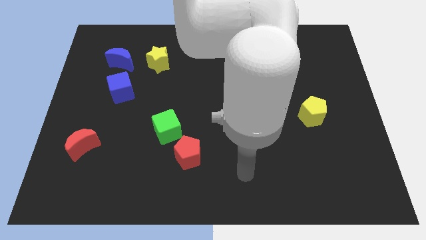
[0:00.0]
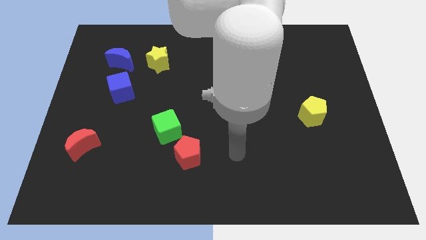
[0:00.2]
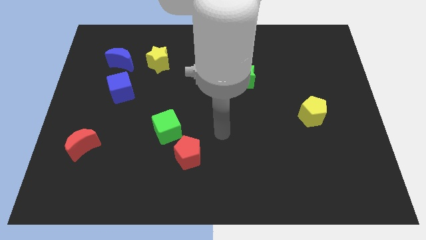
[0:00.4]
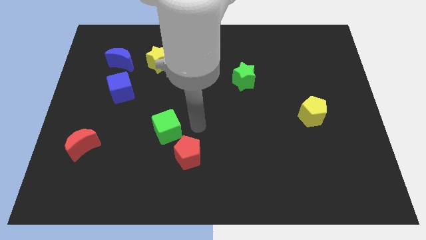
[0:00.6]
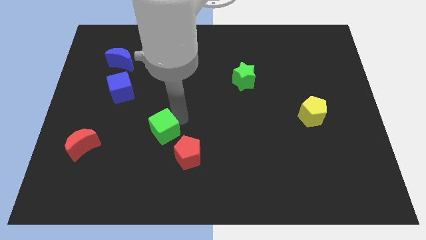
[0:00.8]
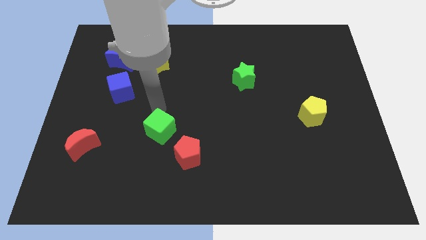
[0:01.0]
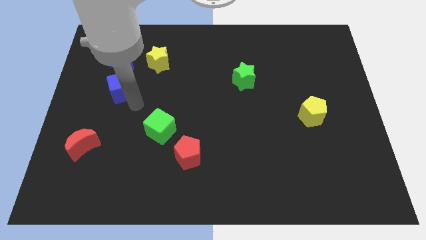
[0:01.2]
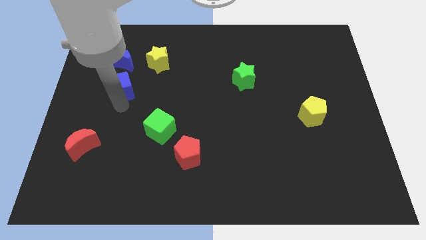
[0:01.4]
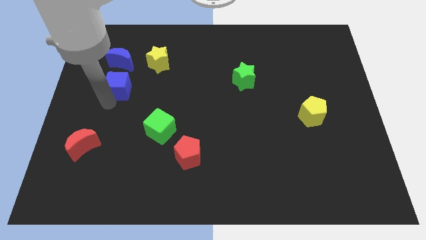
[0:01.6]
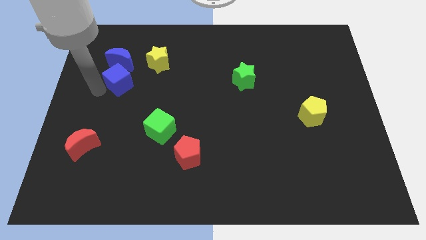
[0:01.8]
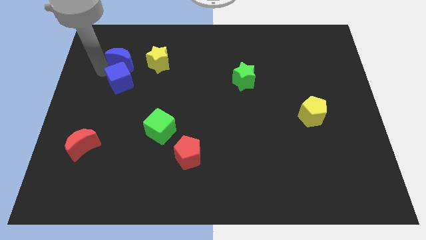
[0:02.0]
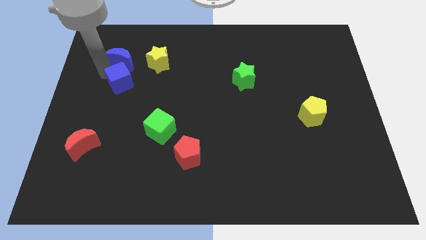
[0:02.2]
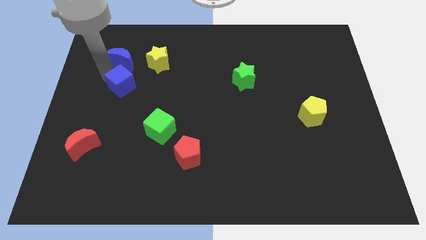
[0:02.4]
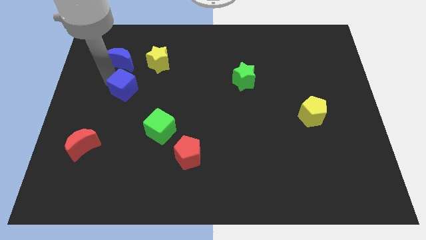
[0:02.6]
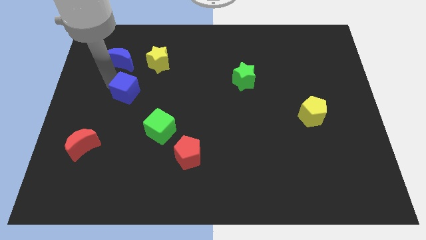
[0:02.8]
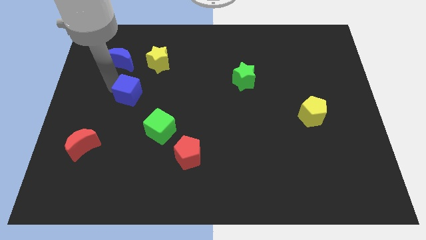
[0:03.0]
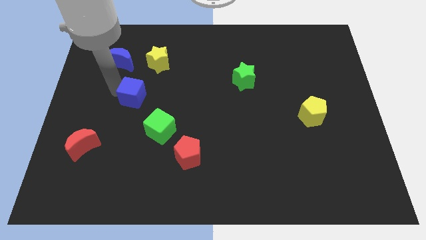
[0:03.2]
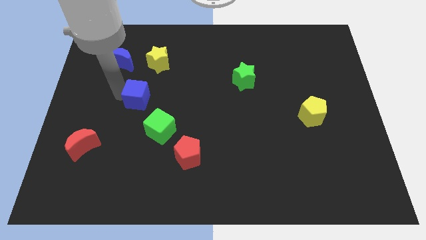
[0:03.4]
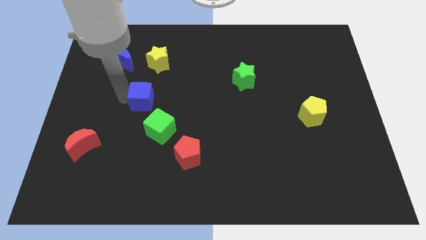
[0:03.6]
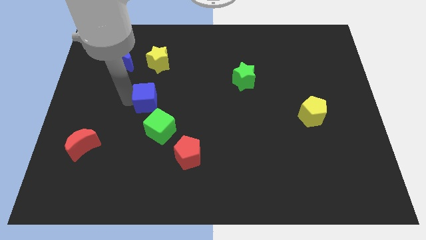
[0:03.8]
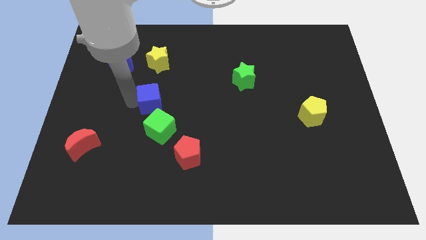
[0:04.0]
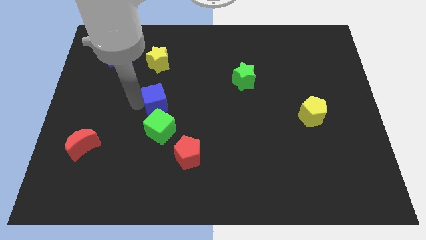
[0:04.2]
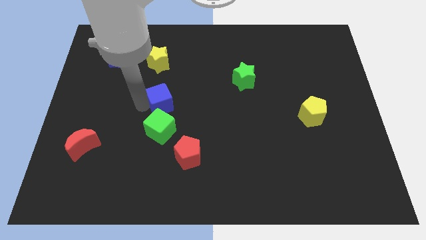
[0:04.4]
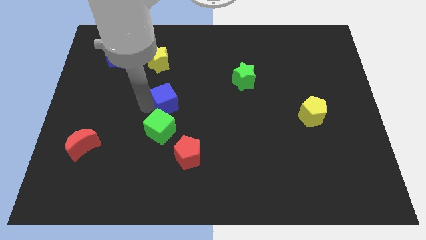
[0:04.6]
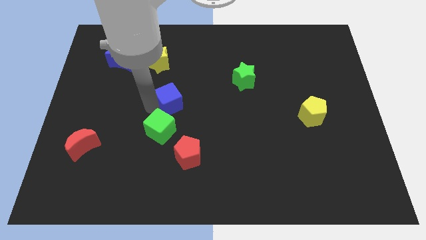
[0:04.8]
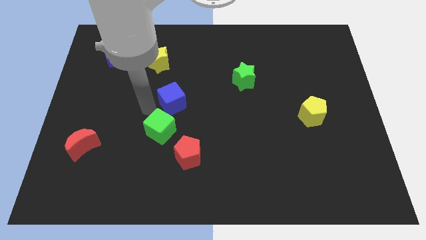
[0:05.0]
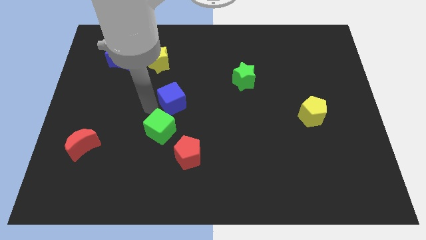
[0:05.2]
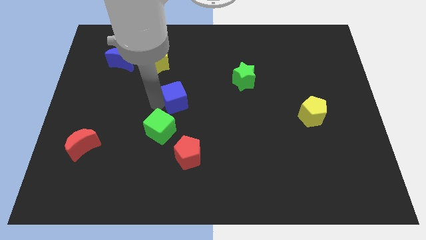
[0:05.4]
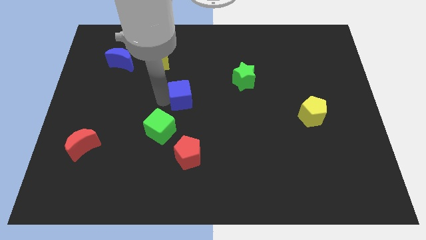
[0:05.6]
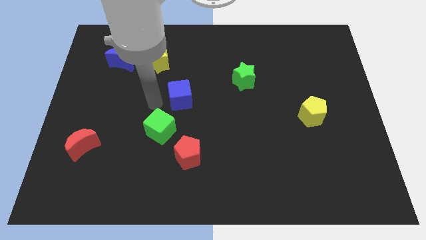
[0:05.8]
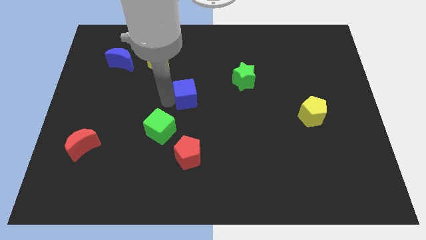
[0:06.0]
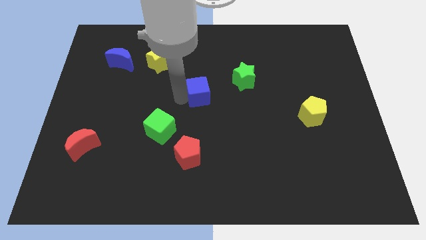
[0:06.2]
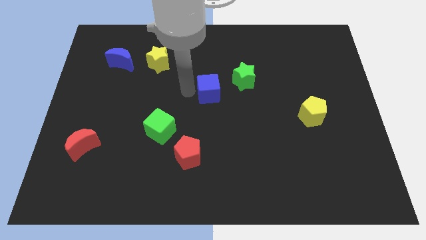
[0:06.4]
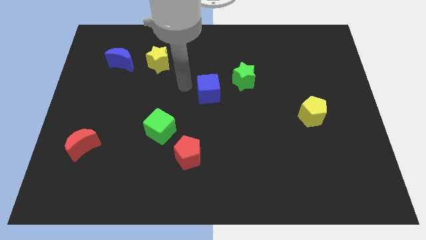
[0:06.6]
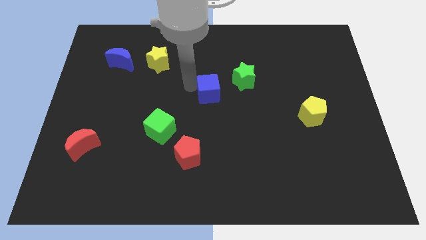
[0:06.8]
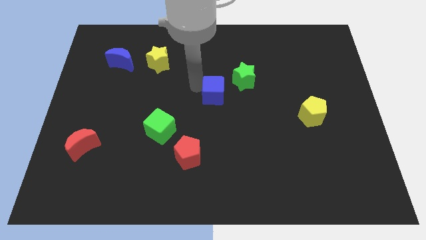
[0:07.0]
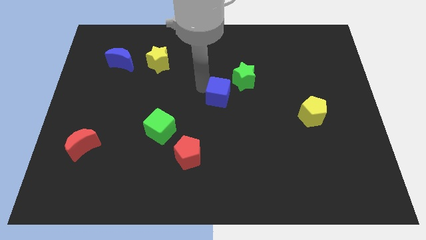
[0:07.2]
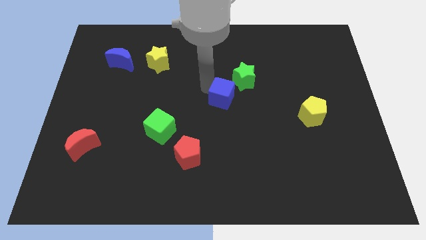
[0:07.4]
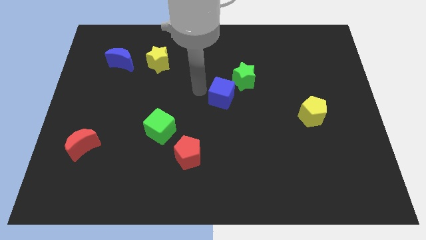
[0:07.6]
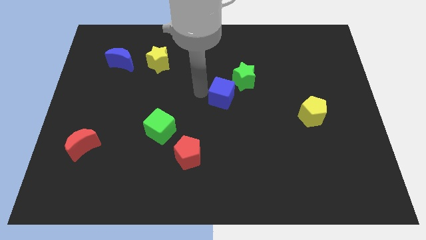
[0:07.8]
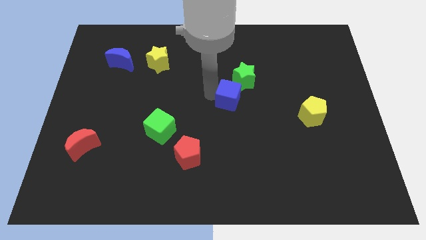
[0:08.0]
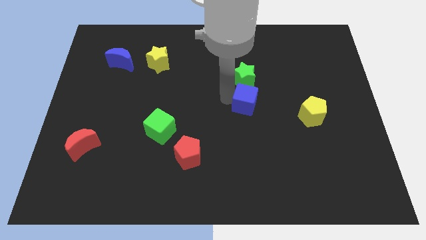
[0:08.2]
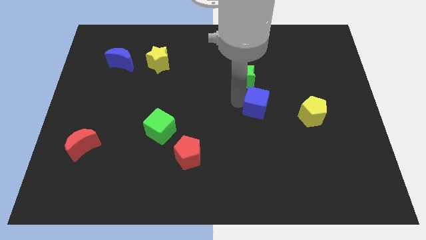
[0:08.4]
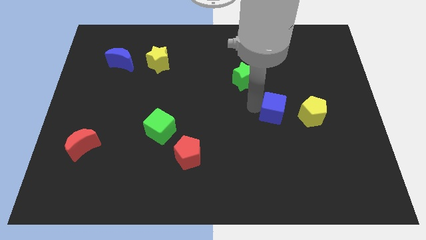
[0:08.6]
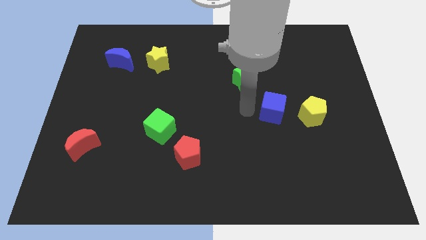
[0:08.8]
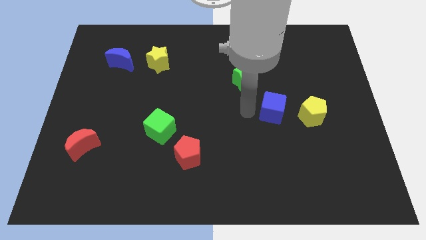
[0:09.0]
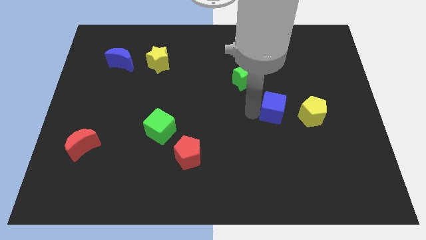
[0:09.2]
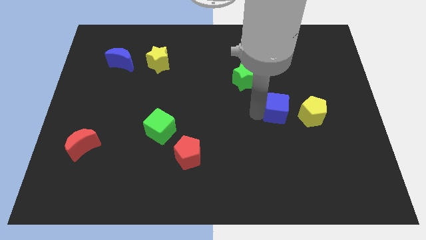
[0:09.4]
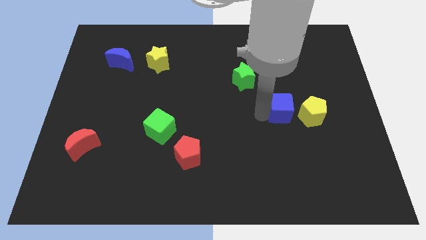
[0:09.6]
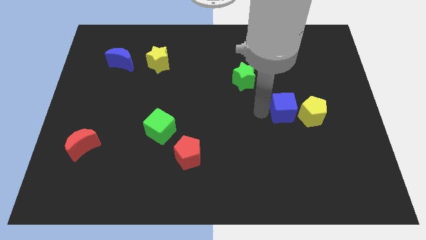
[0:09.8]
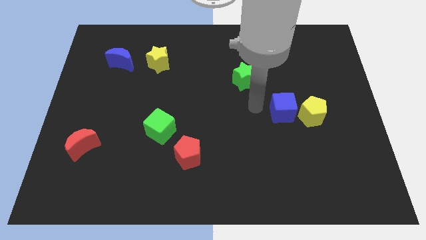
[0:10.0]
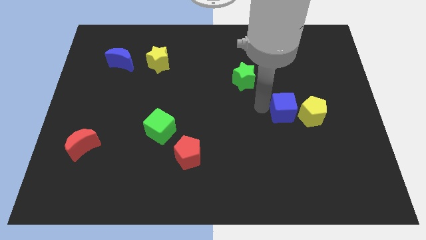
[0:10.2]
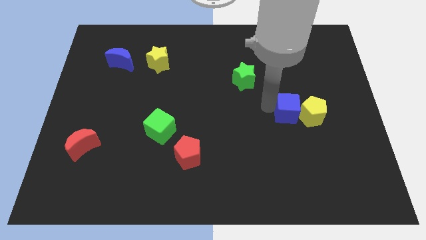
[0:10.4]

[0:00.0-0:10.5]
move the blue cube close to the yellow pentagon

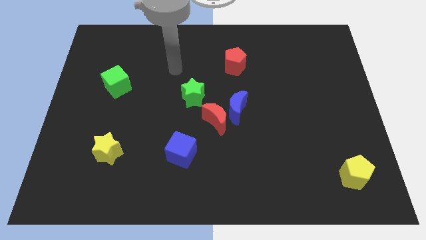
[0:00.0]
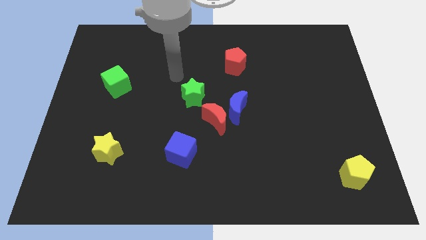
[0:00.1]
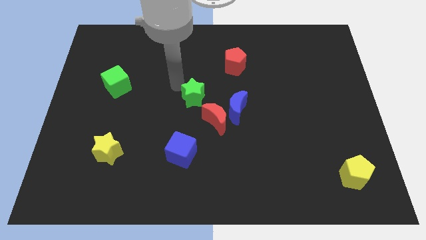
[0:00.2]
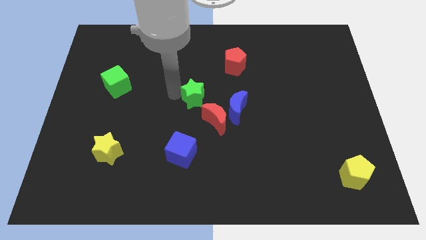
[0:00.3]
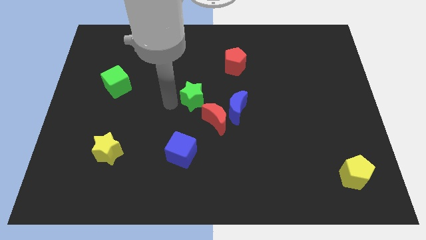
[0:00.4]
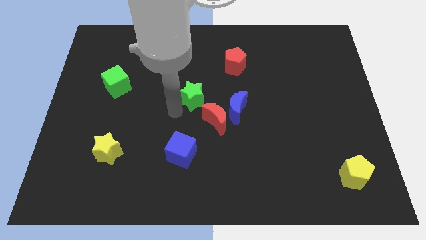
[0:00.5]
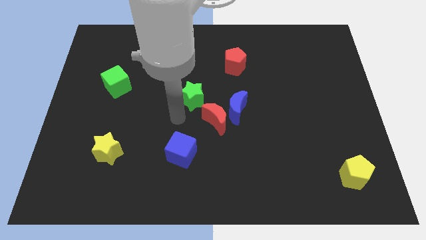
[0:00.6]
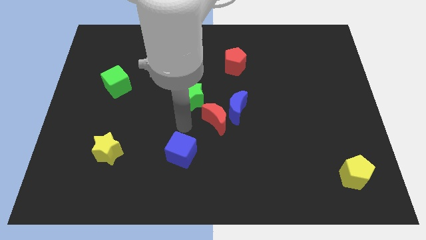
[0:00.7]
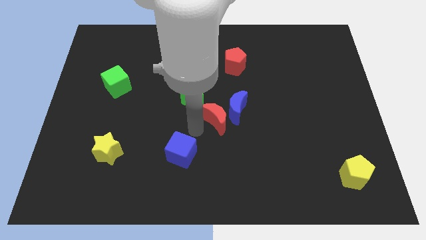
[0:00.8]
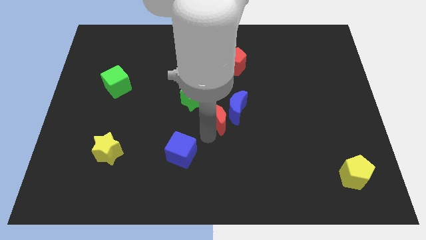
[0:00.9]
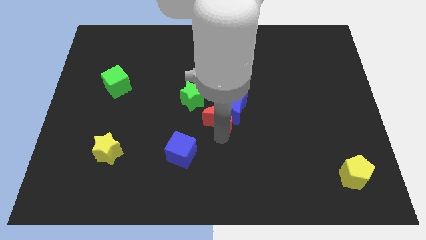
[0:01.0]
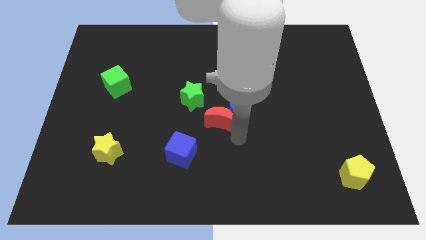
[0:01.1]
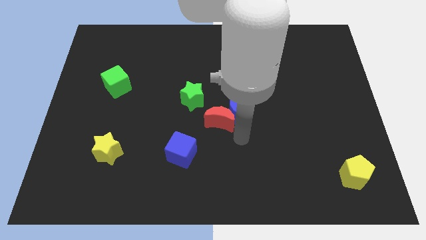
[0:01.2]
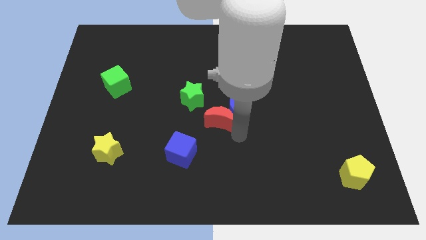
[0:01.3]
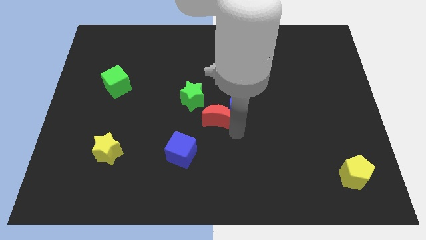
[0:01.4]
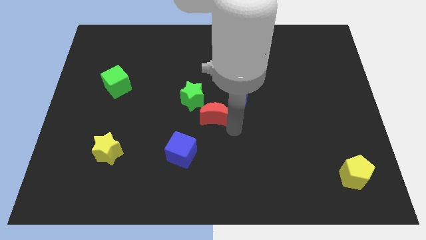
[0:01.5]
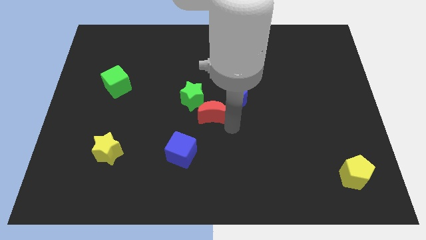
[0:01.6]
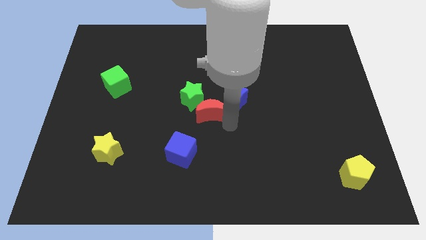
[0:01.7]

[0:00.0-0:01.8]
slide the red moon close to the green star

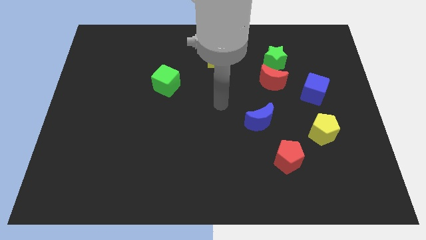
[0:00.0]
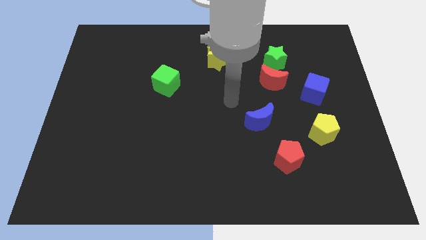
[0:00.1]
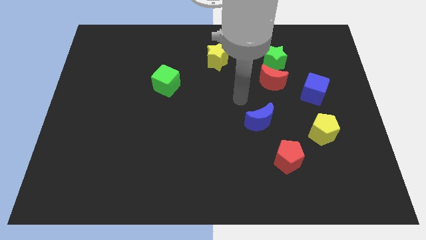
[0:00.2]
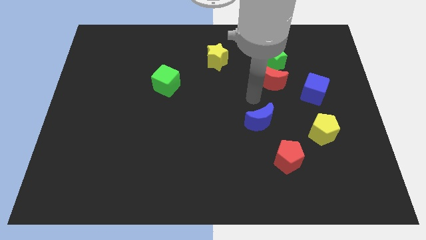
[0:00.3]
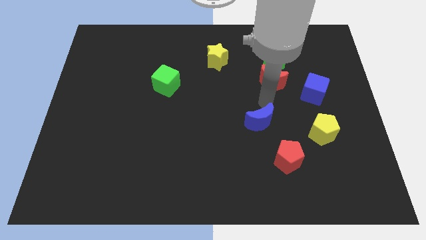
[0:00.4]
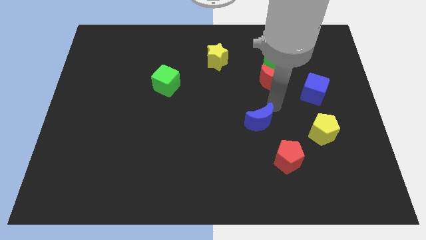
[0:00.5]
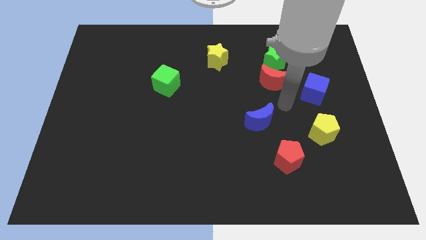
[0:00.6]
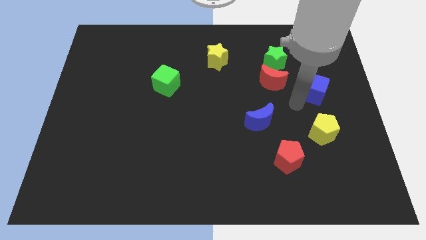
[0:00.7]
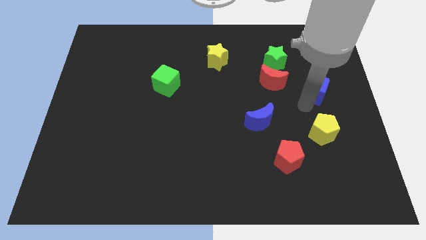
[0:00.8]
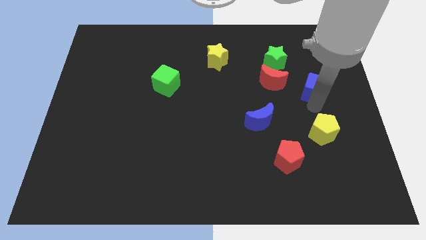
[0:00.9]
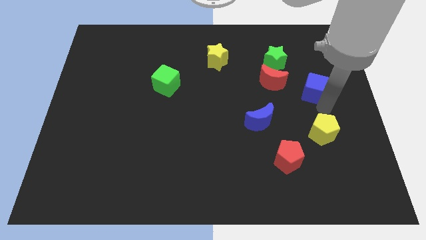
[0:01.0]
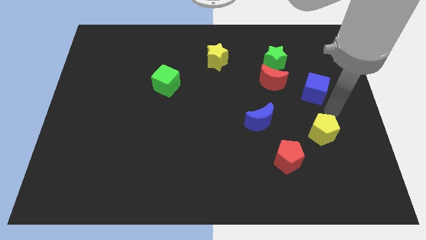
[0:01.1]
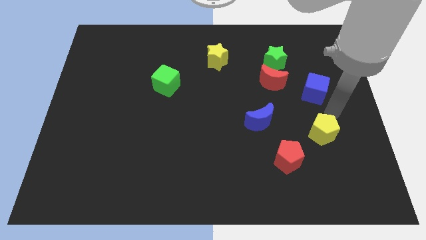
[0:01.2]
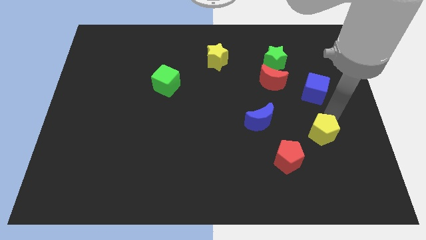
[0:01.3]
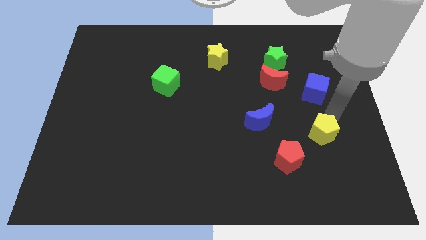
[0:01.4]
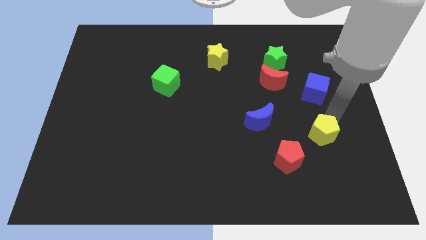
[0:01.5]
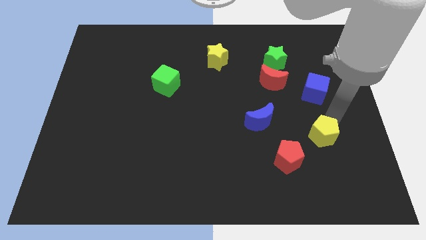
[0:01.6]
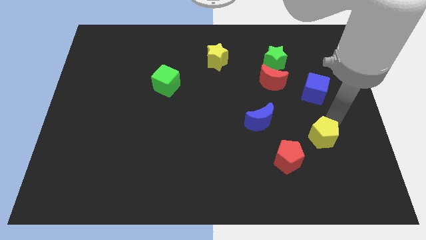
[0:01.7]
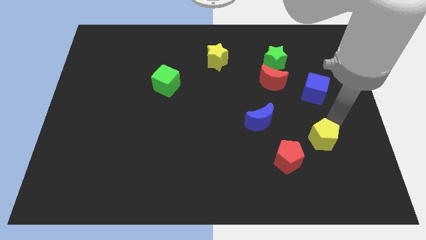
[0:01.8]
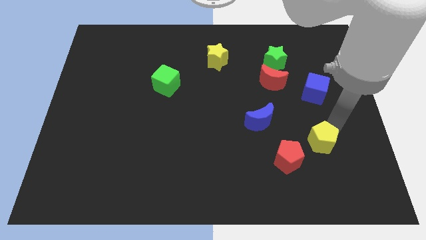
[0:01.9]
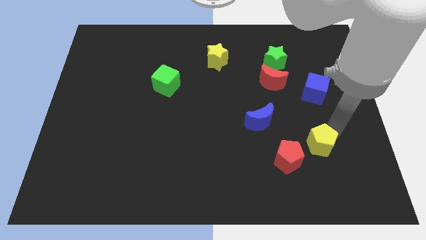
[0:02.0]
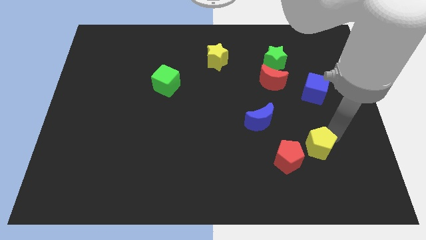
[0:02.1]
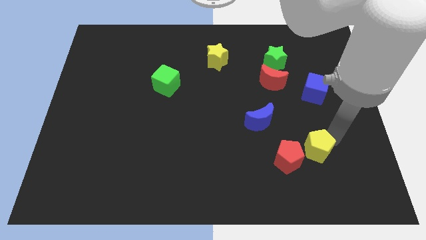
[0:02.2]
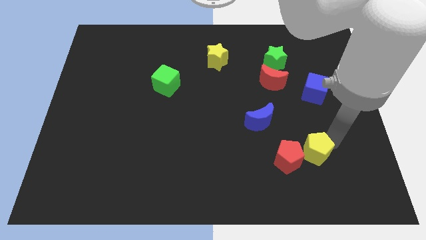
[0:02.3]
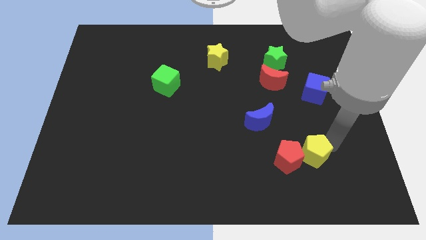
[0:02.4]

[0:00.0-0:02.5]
move the yellow pentagon towards the red pentagon
